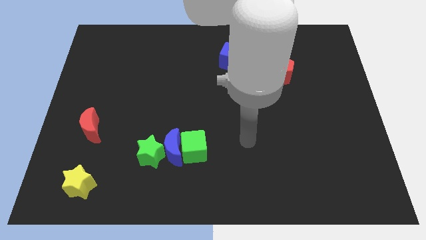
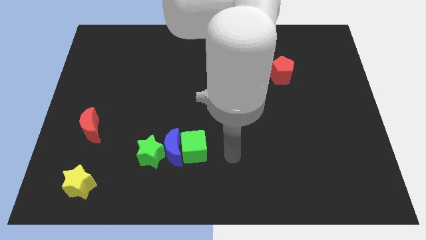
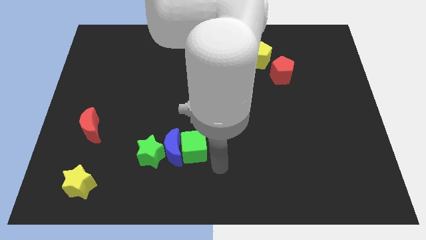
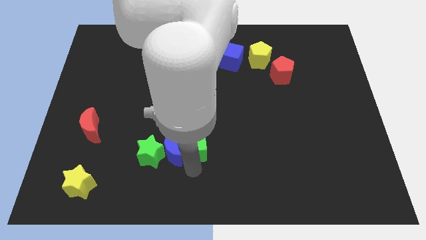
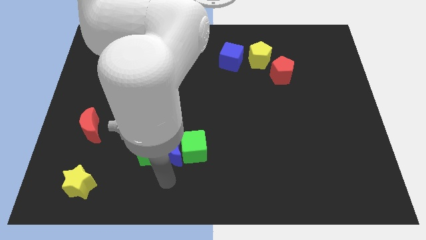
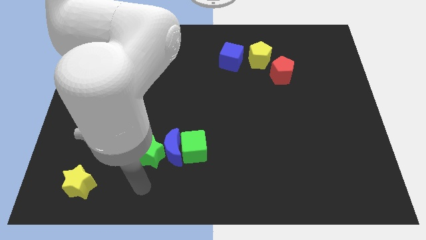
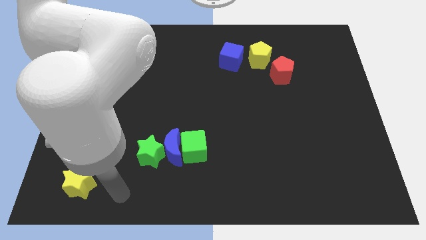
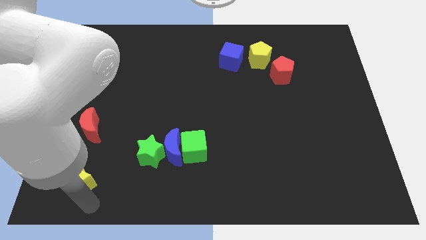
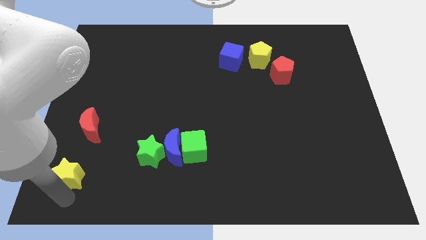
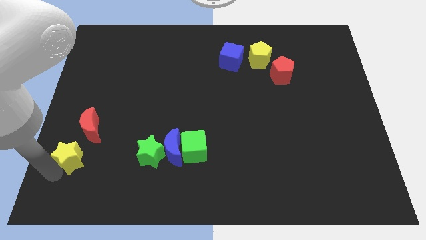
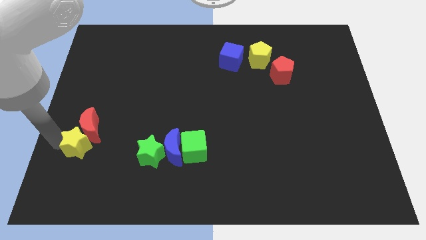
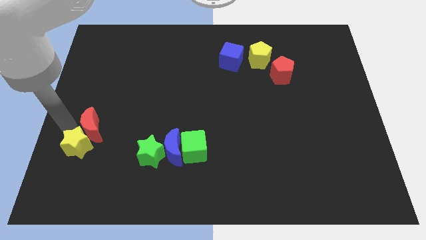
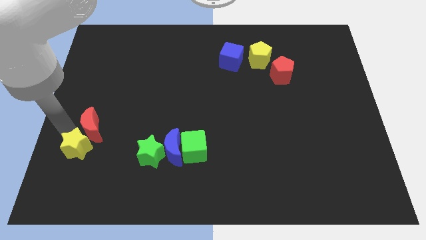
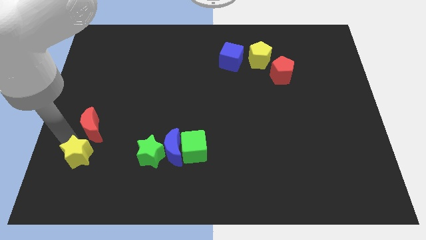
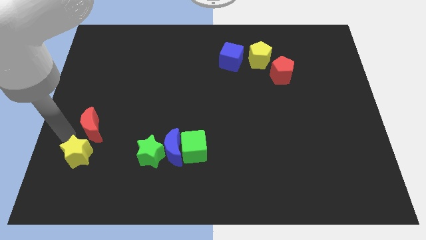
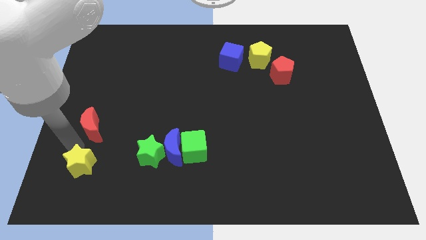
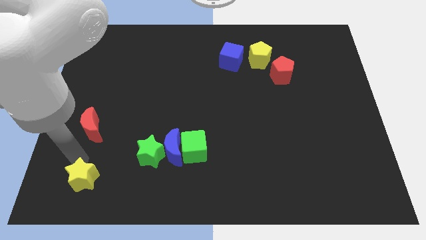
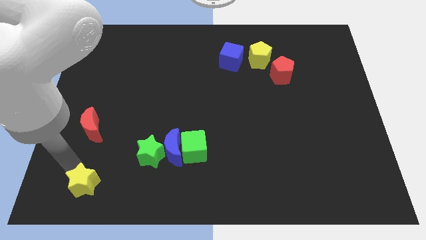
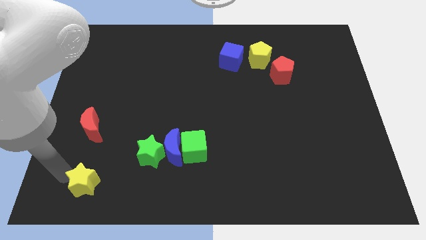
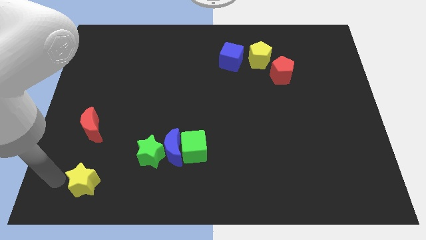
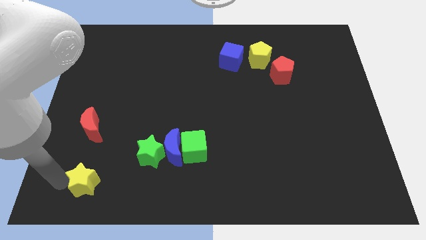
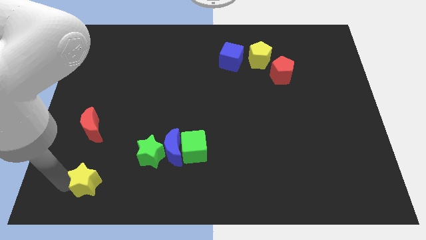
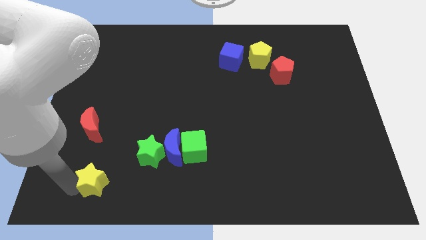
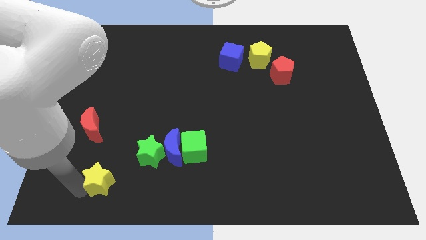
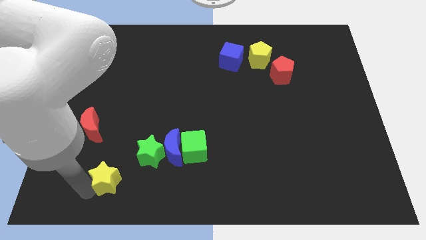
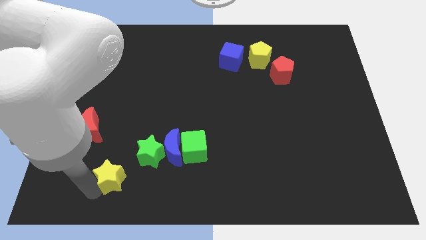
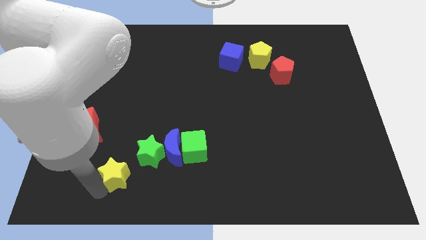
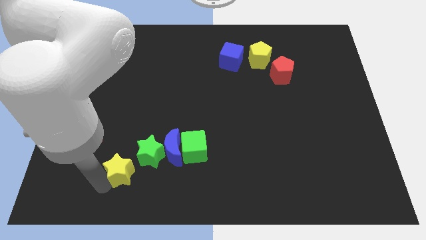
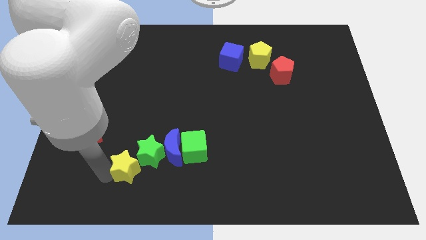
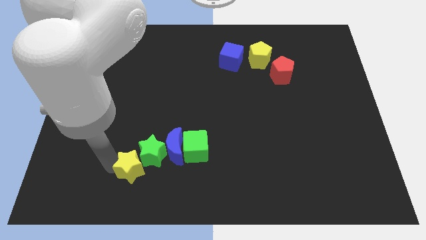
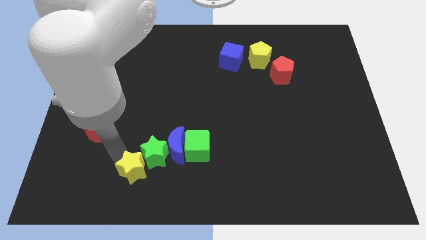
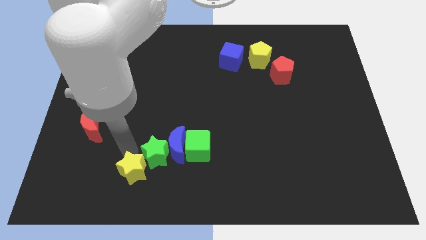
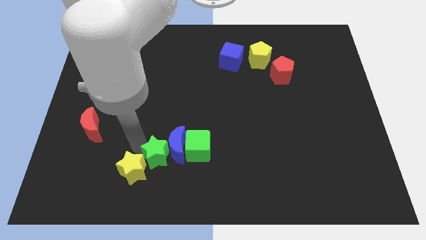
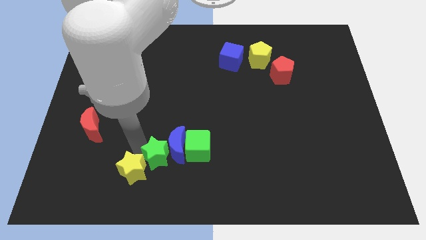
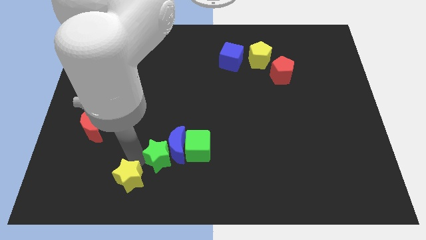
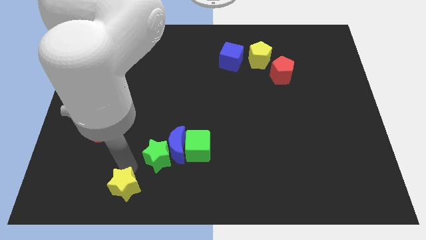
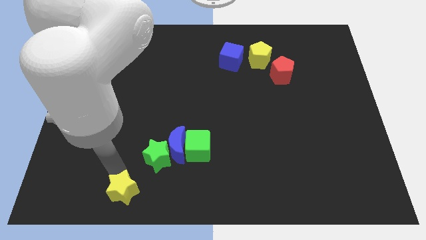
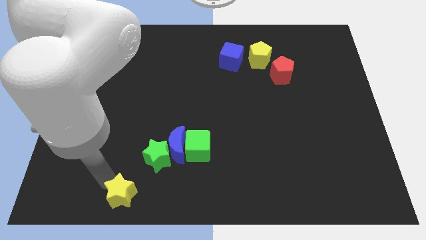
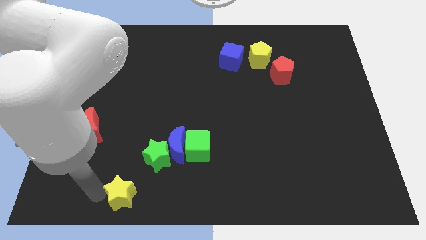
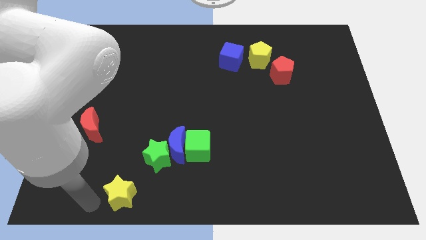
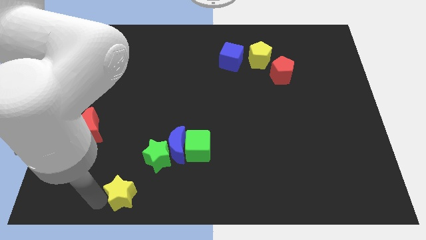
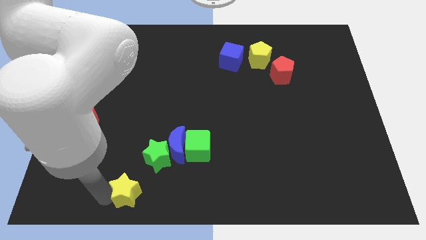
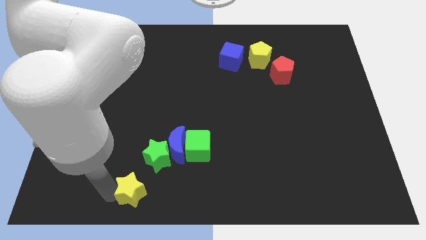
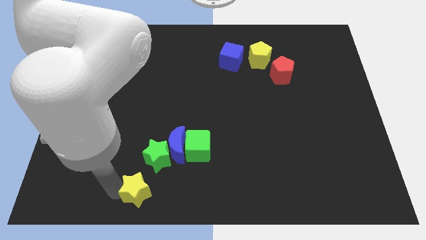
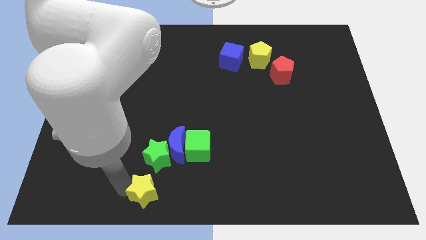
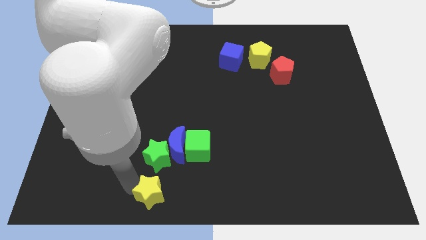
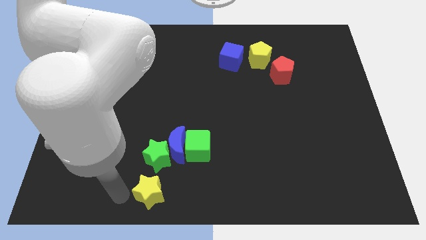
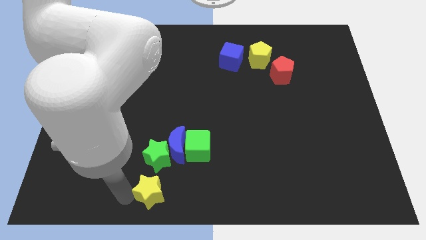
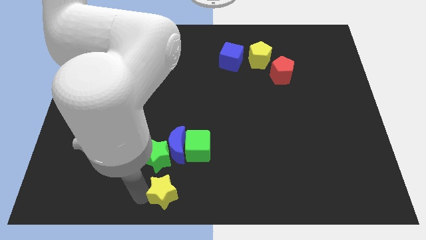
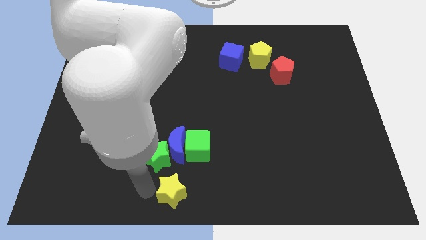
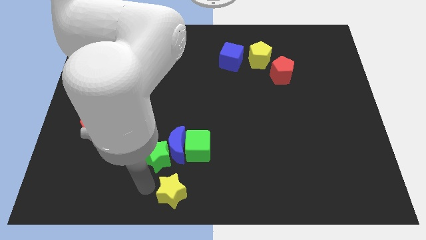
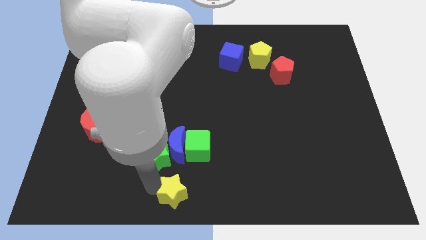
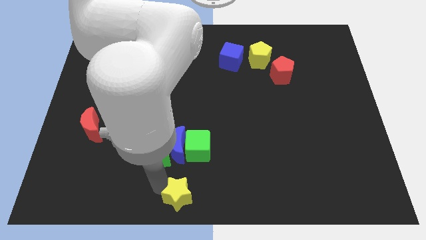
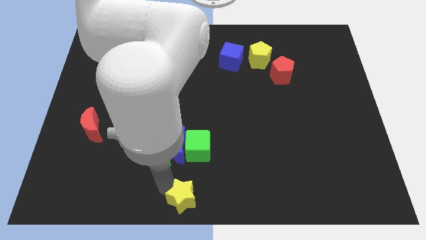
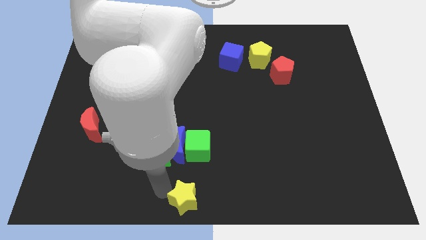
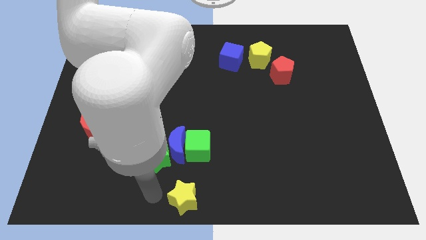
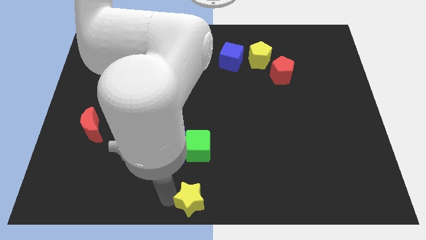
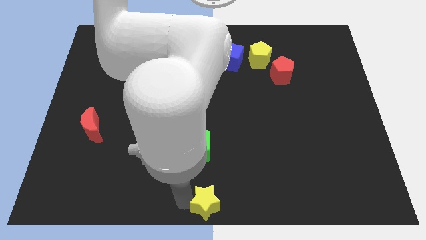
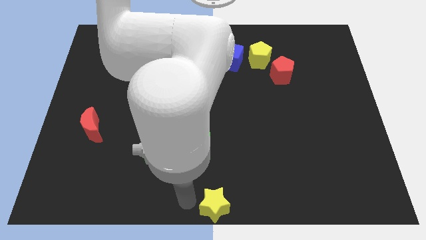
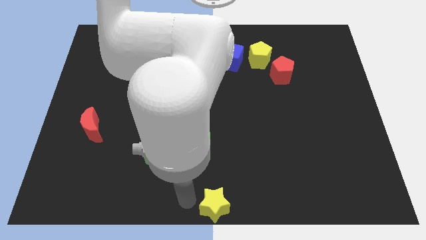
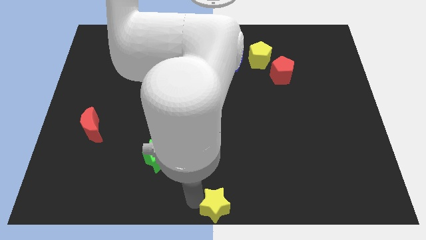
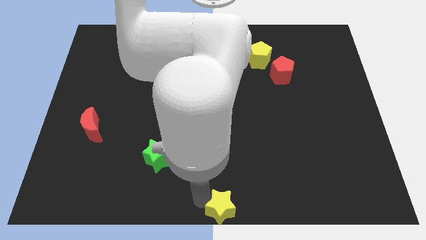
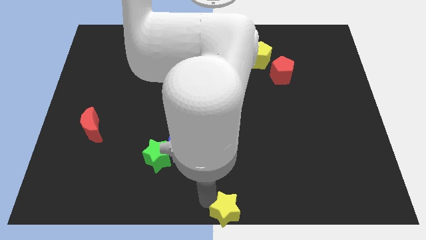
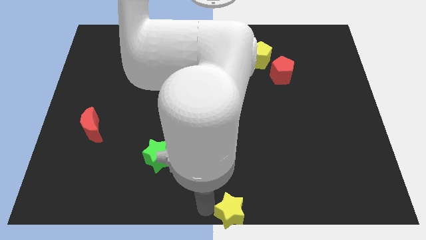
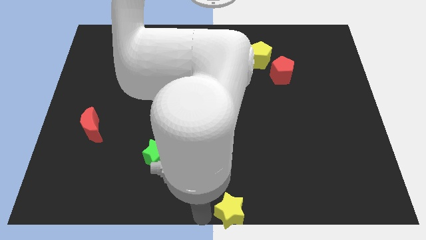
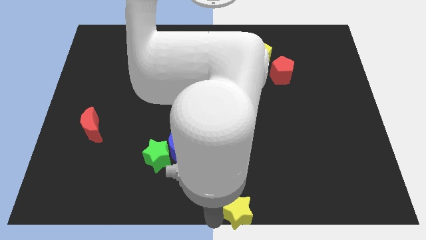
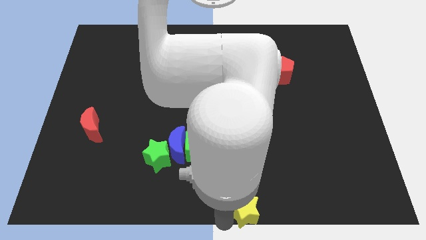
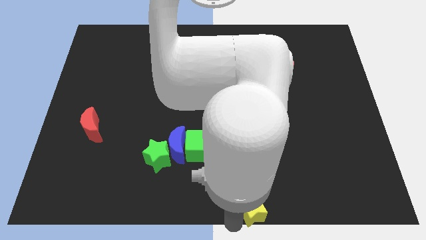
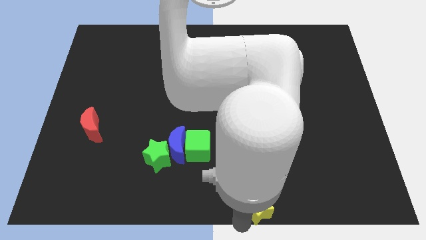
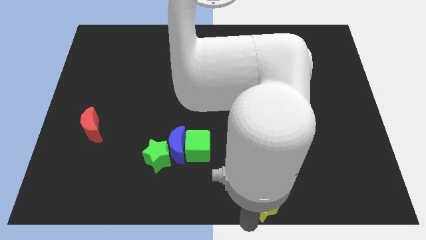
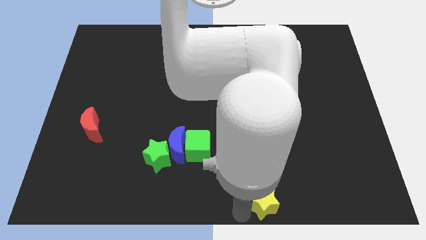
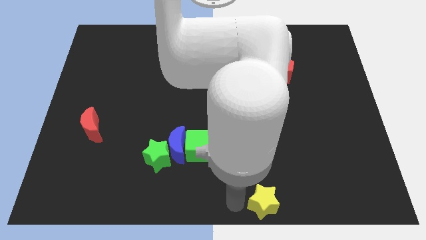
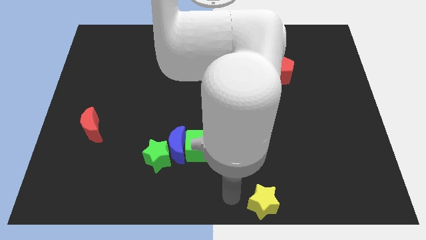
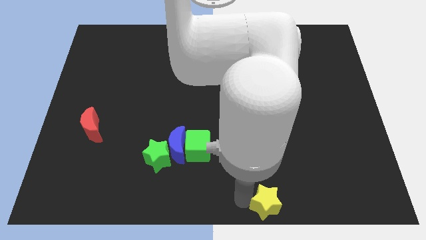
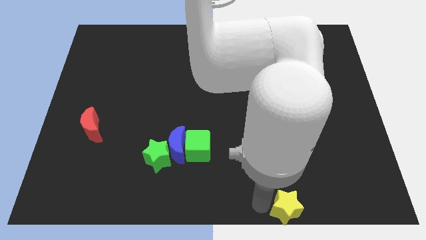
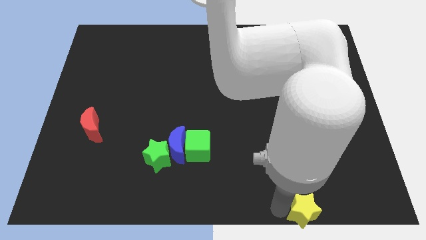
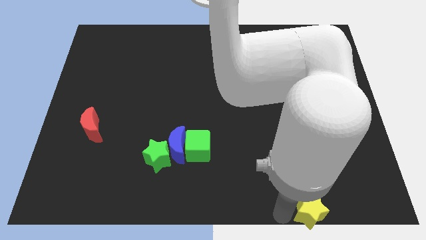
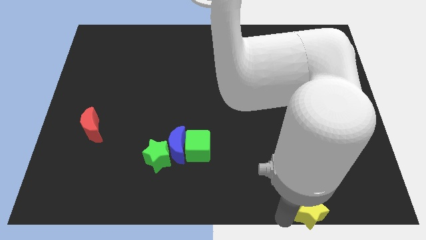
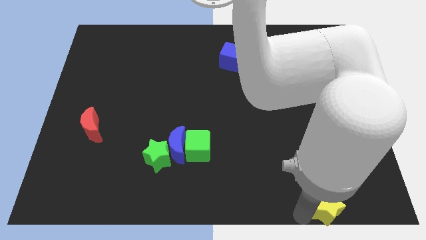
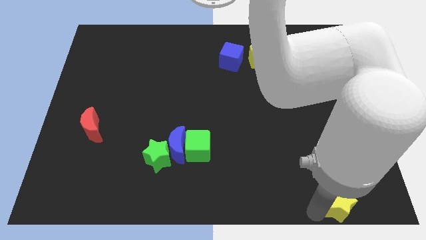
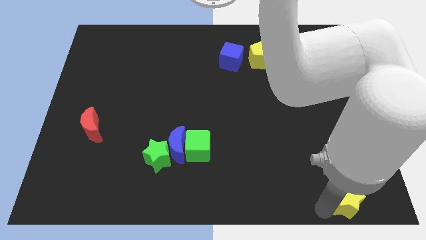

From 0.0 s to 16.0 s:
move the yellow star to the bottom right of the board
